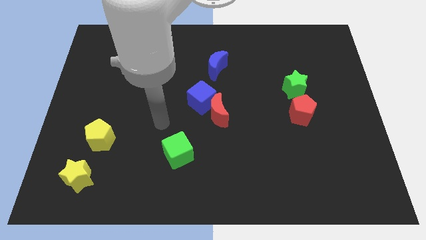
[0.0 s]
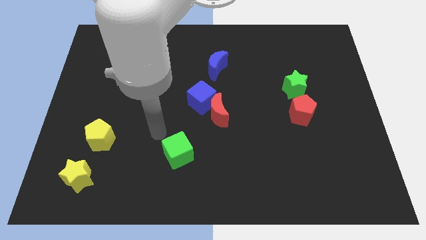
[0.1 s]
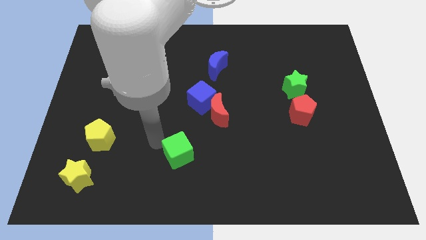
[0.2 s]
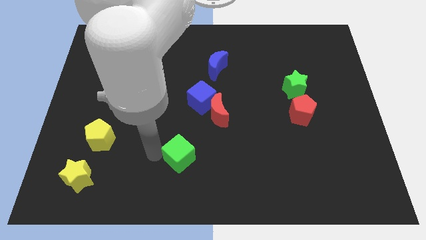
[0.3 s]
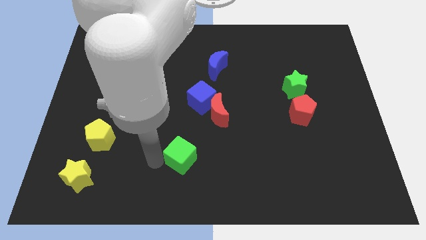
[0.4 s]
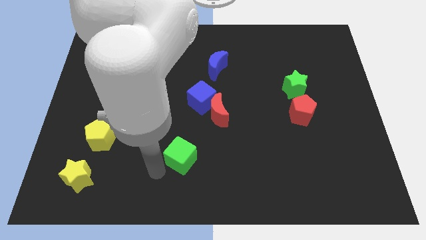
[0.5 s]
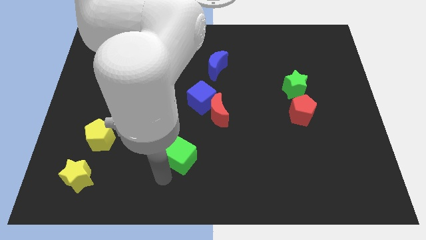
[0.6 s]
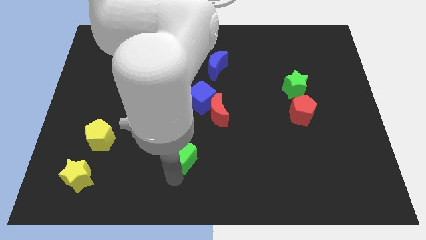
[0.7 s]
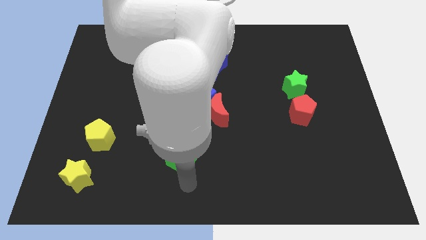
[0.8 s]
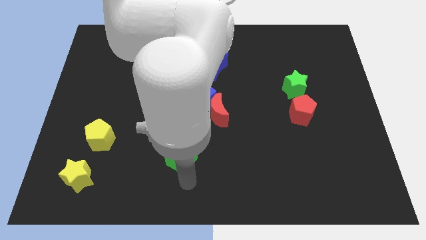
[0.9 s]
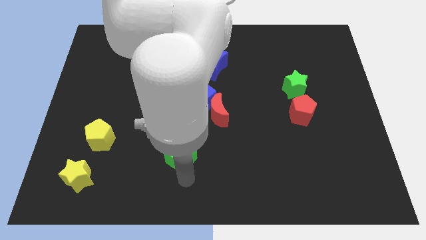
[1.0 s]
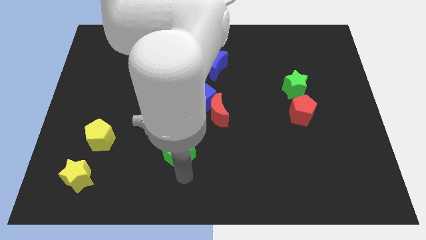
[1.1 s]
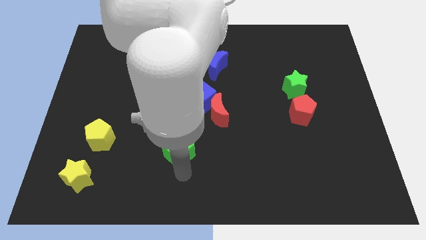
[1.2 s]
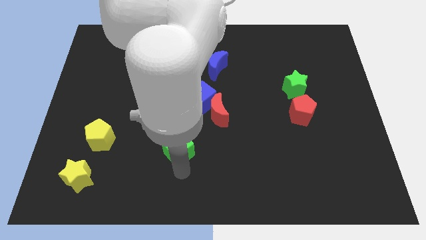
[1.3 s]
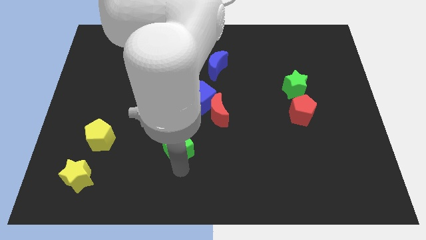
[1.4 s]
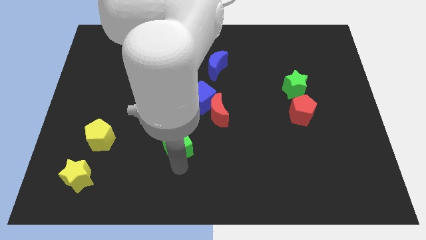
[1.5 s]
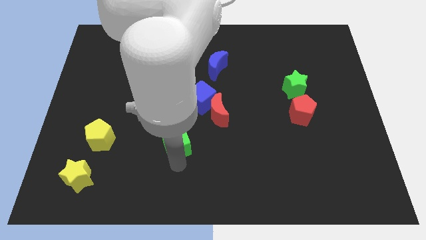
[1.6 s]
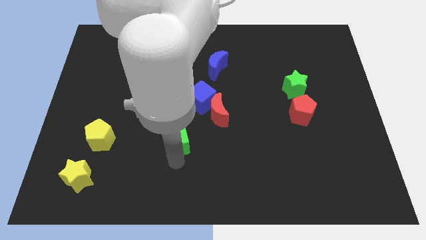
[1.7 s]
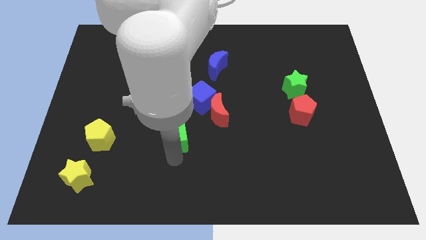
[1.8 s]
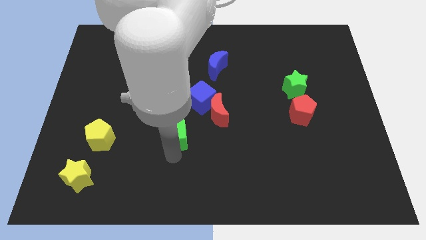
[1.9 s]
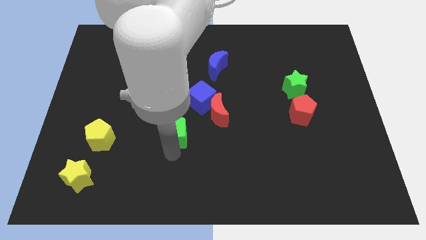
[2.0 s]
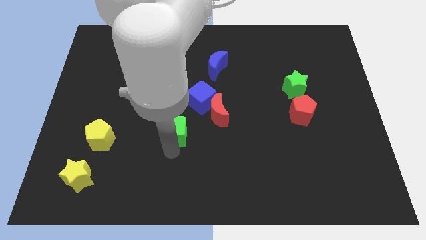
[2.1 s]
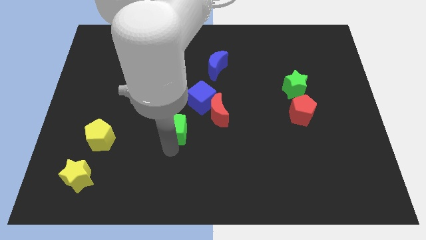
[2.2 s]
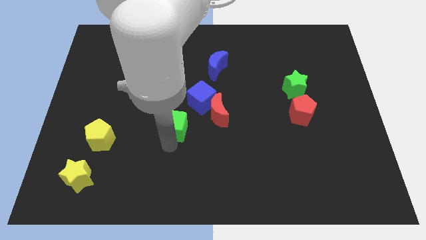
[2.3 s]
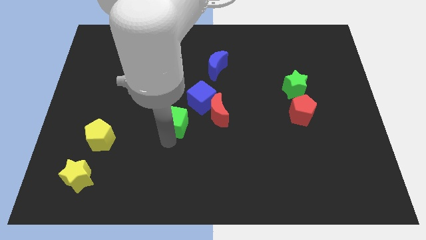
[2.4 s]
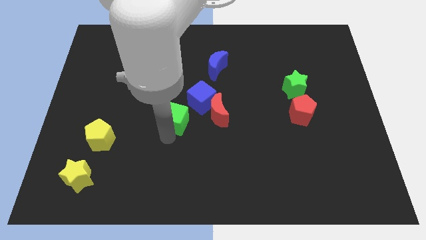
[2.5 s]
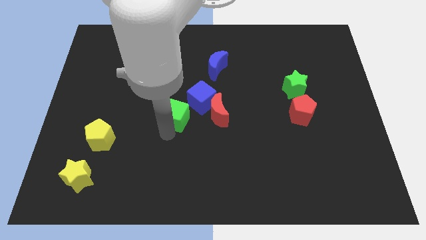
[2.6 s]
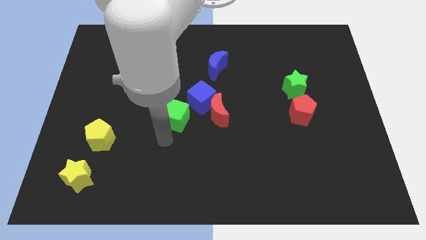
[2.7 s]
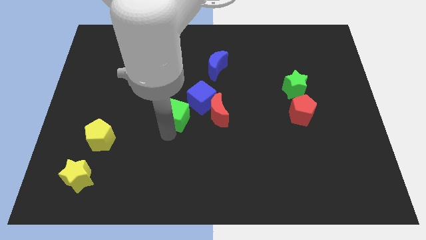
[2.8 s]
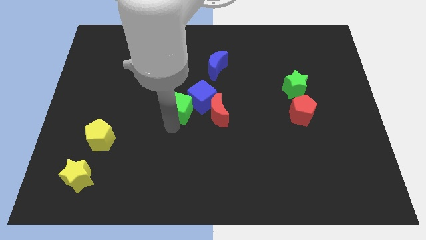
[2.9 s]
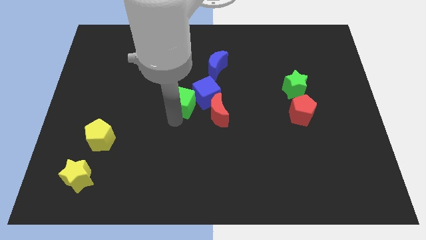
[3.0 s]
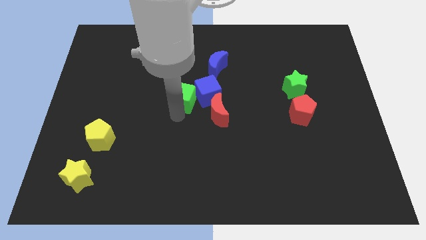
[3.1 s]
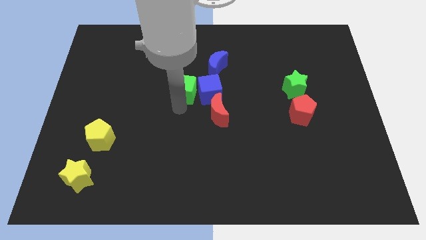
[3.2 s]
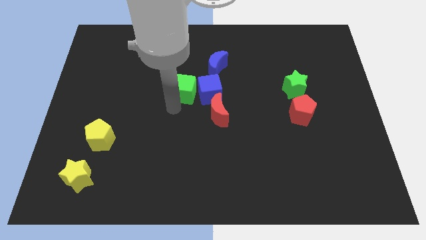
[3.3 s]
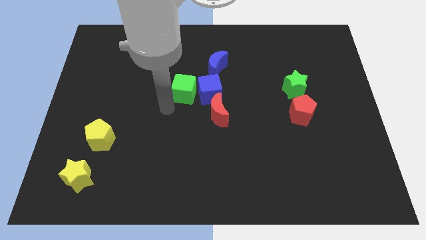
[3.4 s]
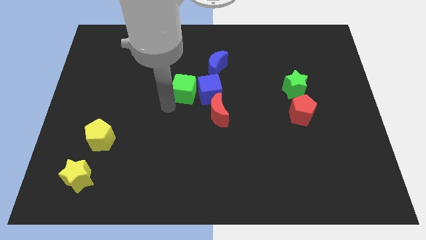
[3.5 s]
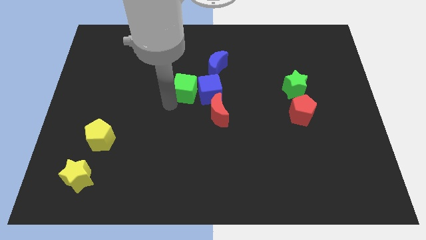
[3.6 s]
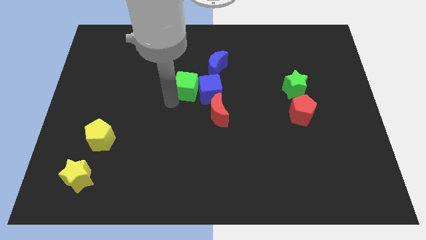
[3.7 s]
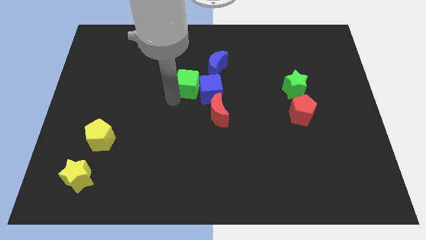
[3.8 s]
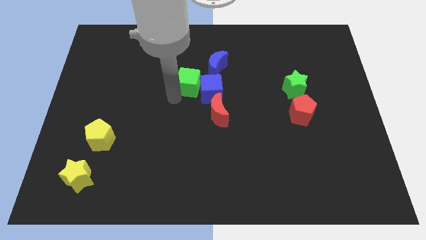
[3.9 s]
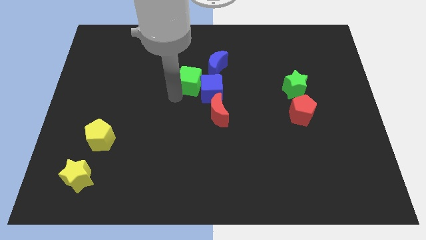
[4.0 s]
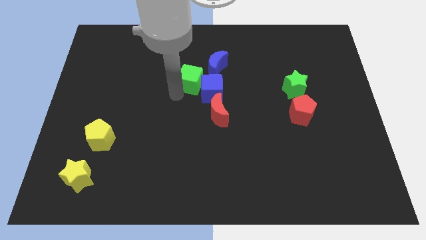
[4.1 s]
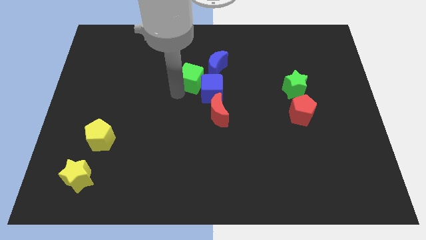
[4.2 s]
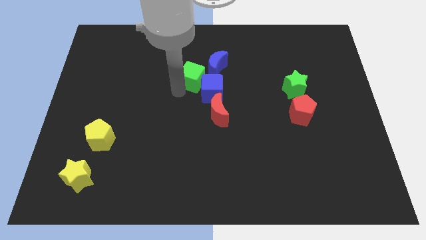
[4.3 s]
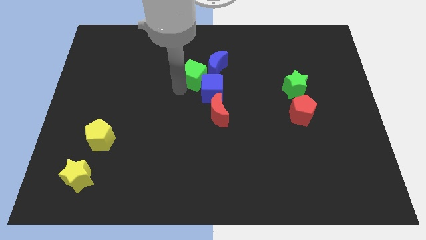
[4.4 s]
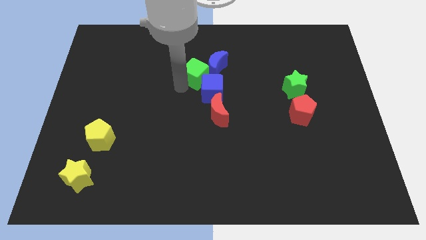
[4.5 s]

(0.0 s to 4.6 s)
put the green cube to the blue moon

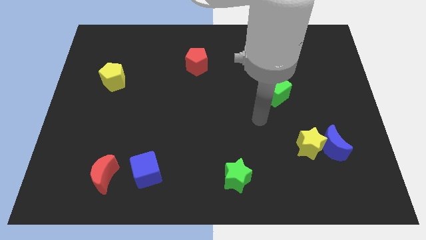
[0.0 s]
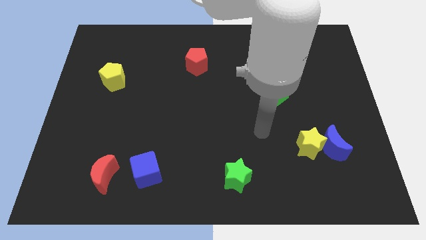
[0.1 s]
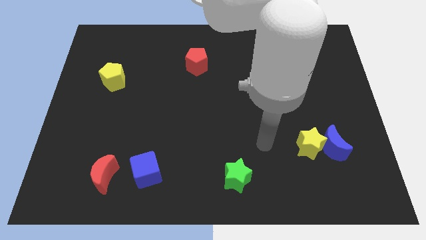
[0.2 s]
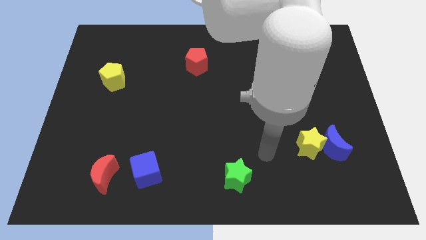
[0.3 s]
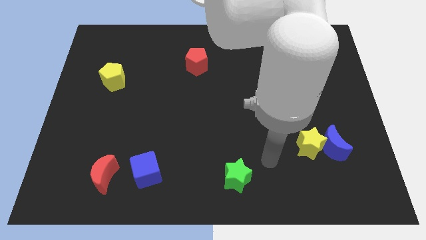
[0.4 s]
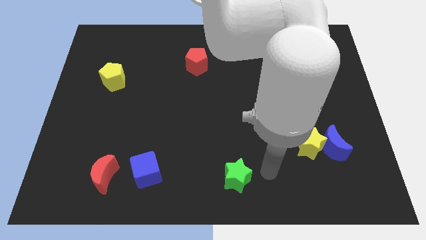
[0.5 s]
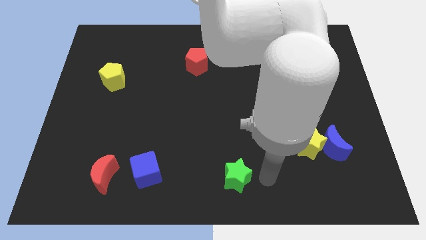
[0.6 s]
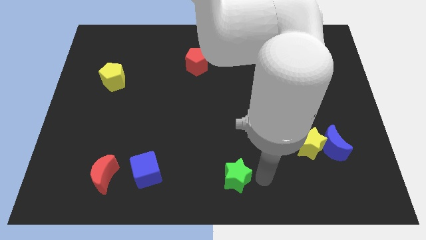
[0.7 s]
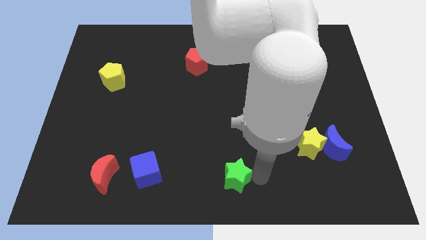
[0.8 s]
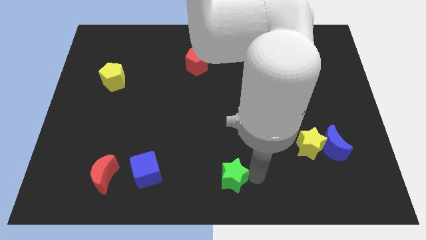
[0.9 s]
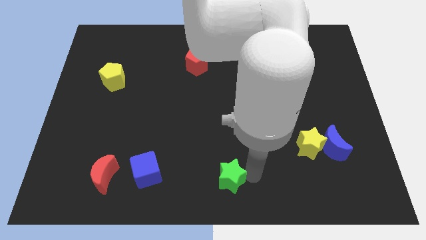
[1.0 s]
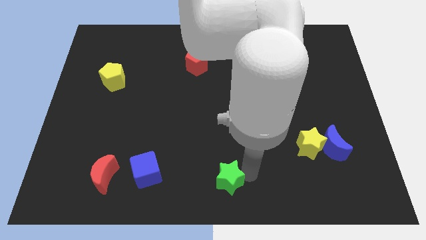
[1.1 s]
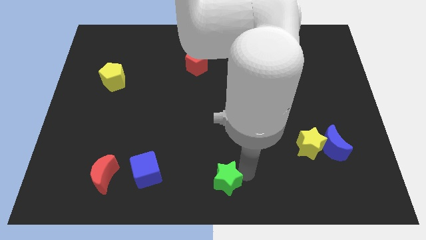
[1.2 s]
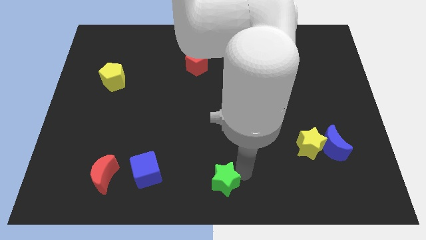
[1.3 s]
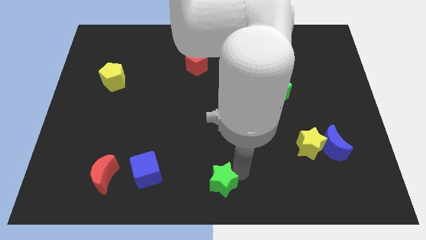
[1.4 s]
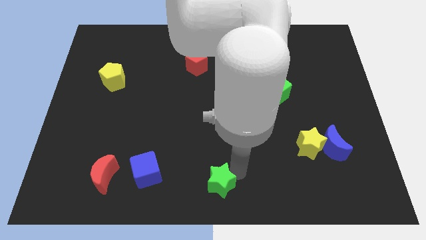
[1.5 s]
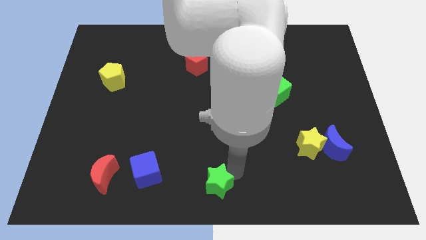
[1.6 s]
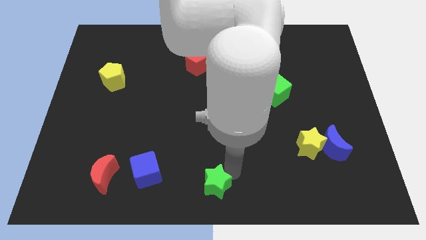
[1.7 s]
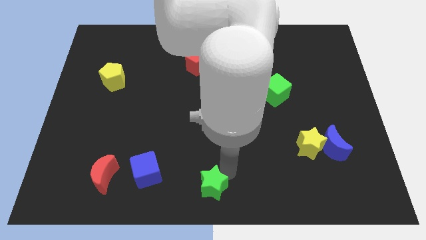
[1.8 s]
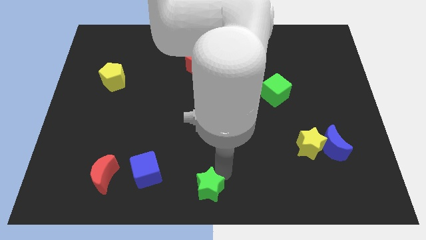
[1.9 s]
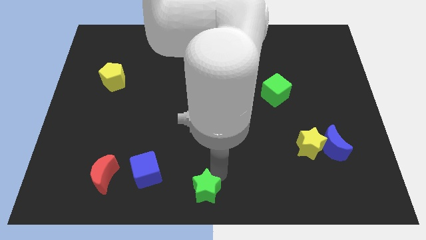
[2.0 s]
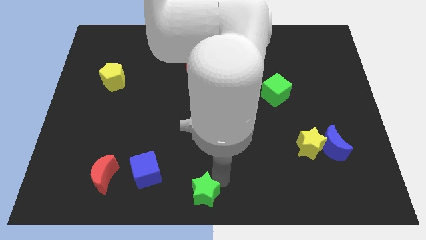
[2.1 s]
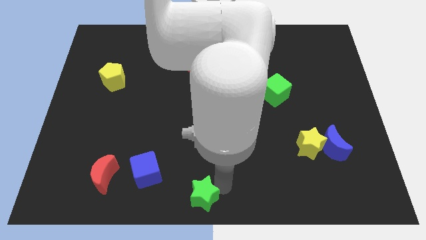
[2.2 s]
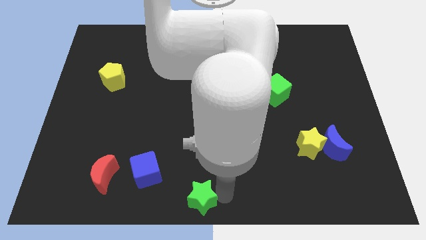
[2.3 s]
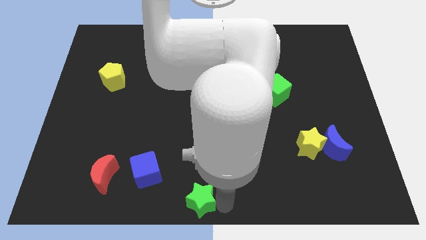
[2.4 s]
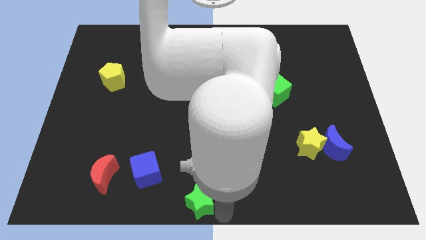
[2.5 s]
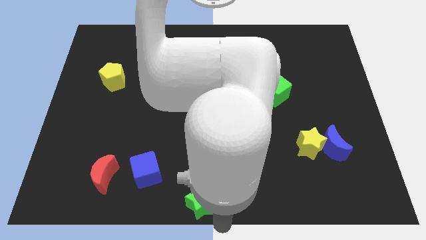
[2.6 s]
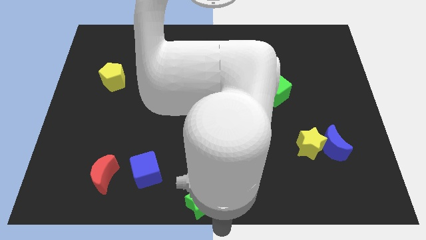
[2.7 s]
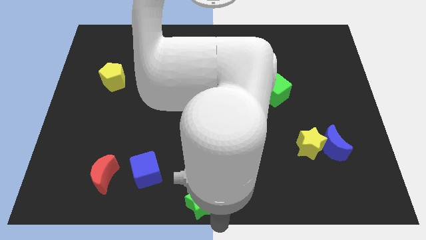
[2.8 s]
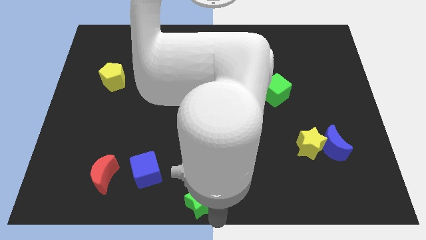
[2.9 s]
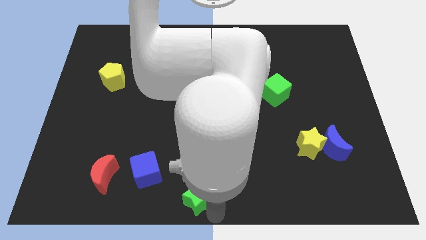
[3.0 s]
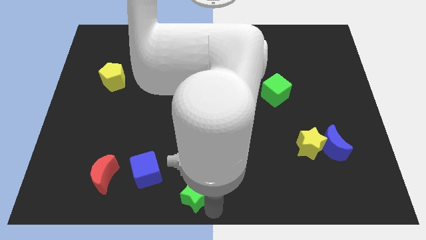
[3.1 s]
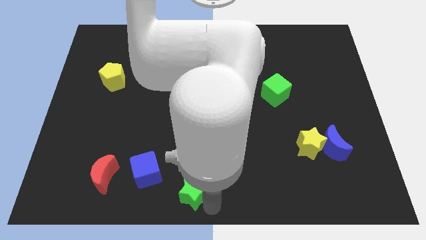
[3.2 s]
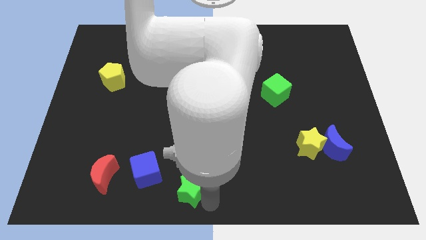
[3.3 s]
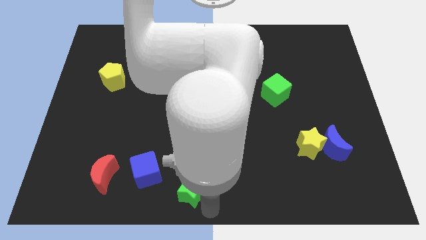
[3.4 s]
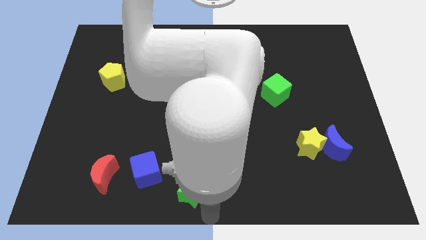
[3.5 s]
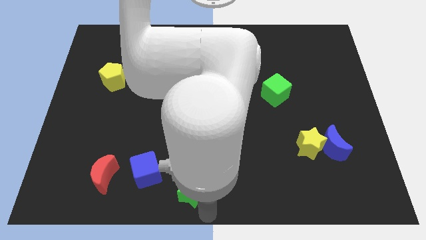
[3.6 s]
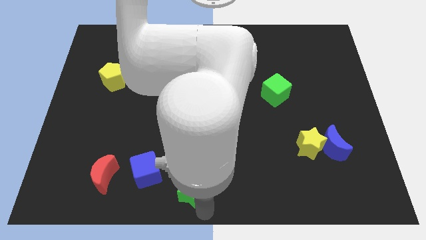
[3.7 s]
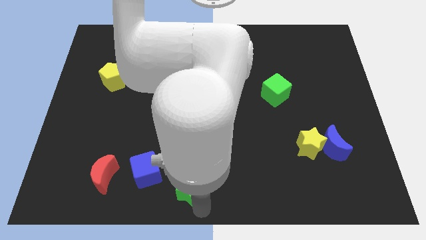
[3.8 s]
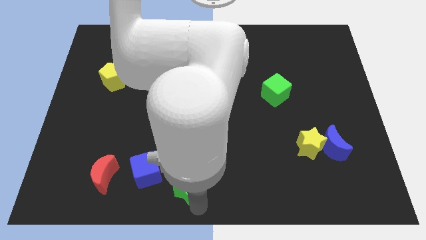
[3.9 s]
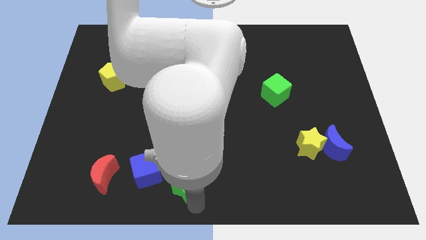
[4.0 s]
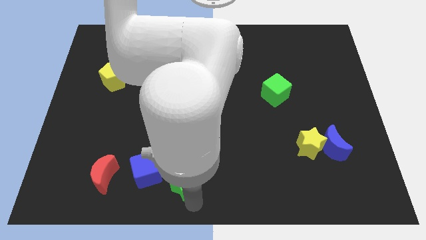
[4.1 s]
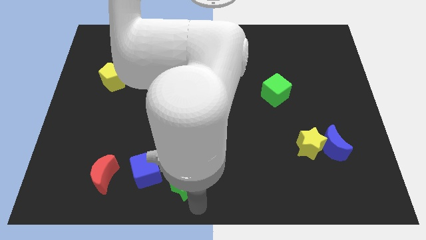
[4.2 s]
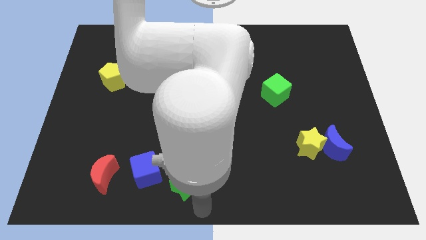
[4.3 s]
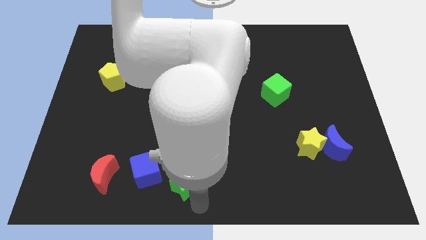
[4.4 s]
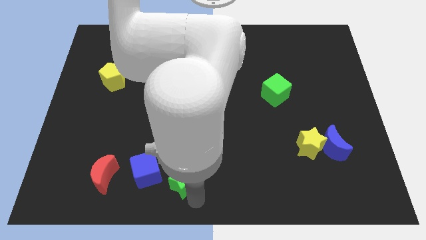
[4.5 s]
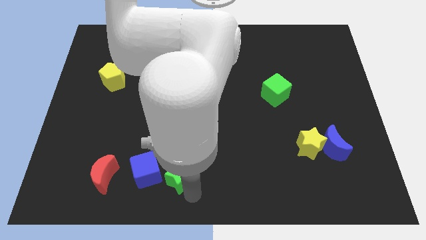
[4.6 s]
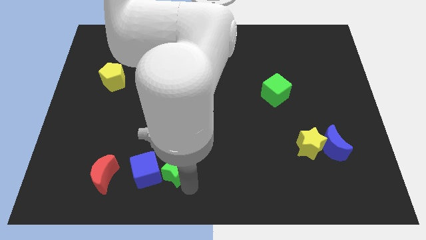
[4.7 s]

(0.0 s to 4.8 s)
push the green star towards the blue cube
